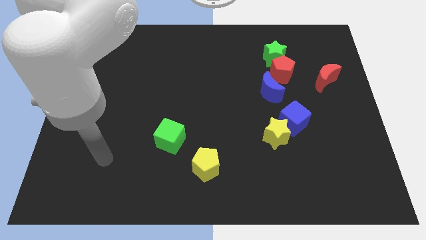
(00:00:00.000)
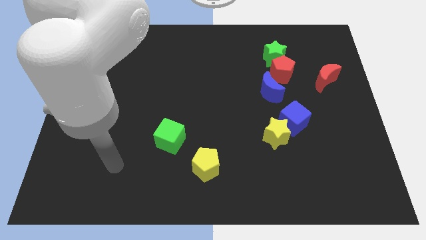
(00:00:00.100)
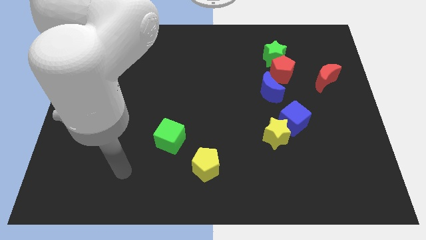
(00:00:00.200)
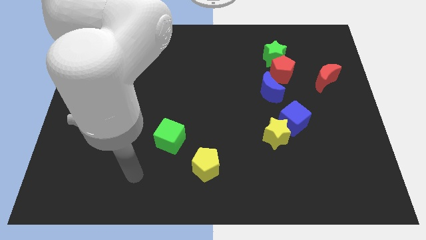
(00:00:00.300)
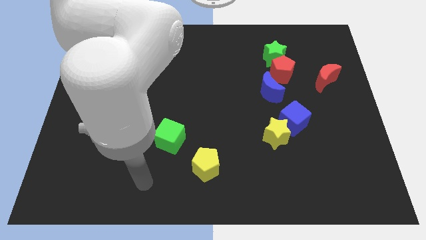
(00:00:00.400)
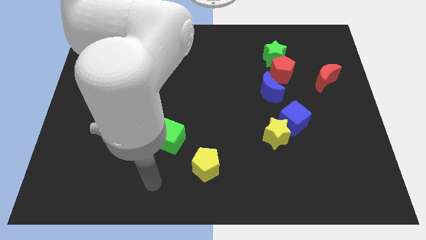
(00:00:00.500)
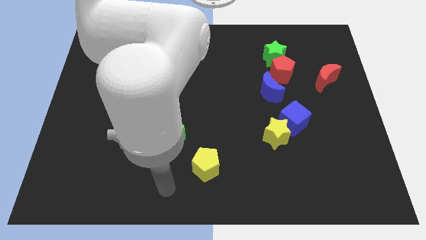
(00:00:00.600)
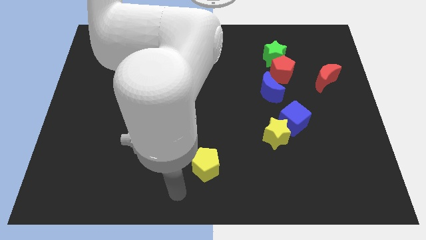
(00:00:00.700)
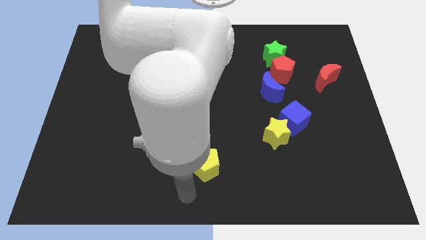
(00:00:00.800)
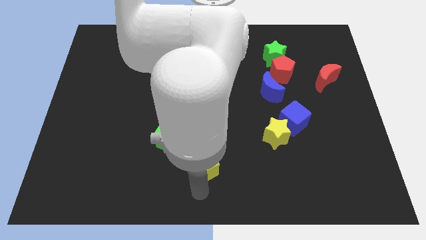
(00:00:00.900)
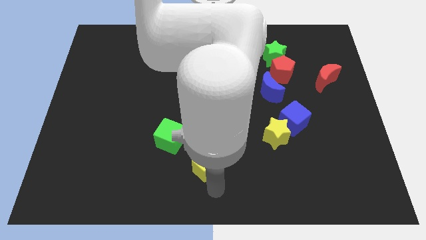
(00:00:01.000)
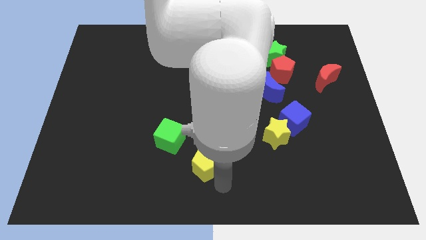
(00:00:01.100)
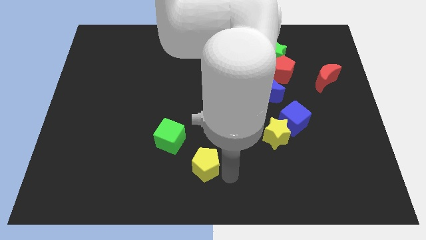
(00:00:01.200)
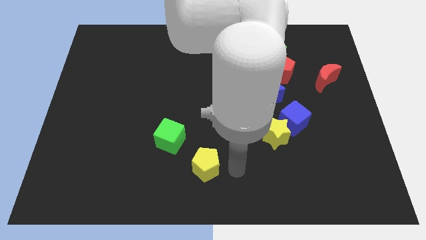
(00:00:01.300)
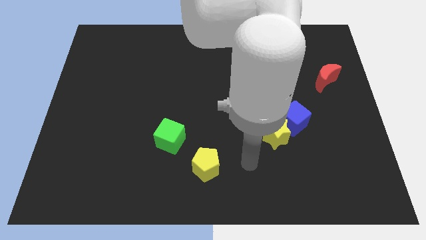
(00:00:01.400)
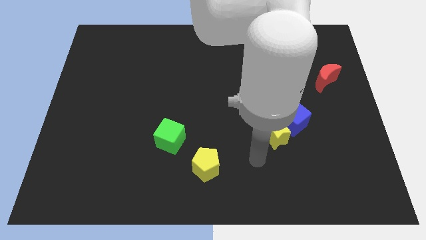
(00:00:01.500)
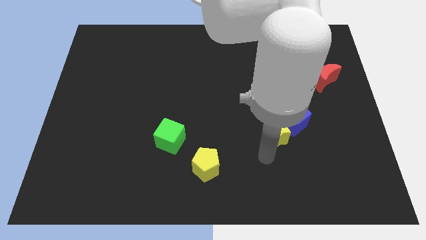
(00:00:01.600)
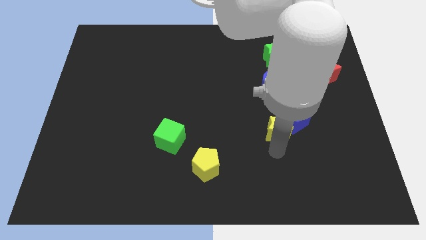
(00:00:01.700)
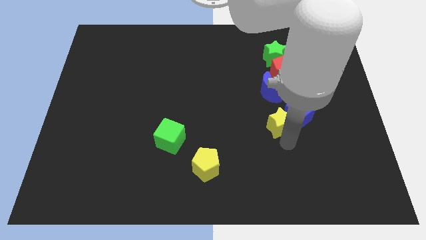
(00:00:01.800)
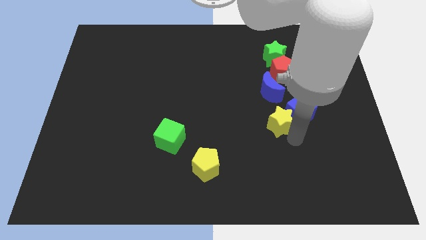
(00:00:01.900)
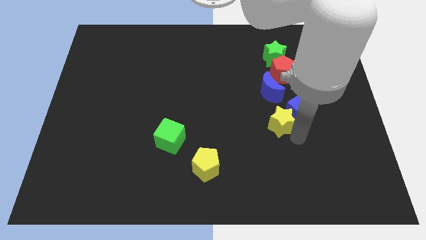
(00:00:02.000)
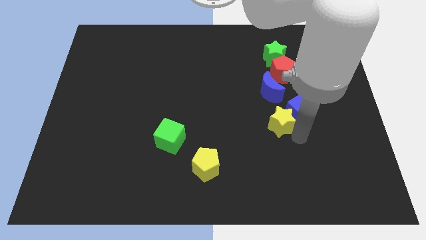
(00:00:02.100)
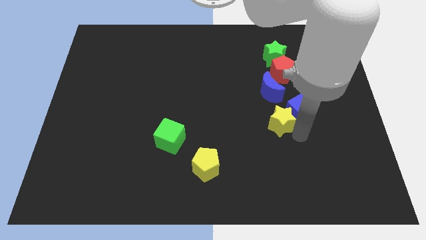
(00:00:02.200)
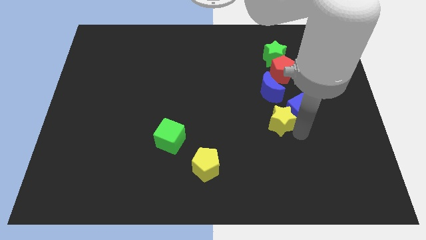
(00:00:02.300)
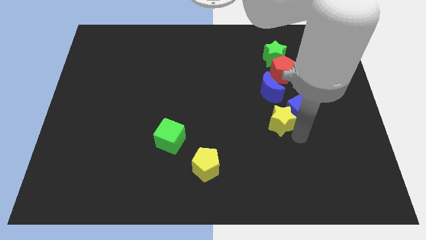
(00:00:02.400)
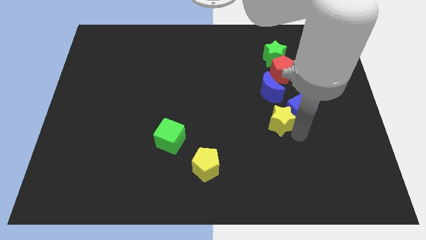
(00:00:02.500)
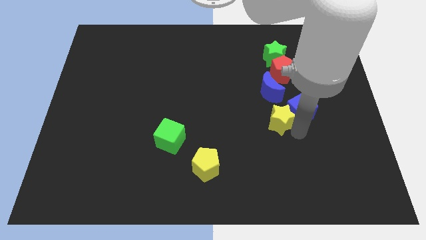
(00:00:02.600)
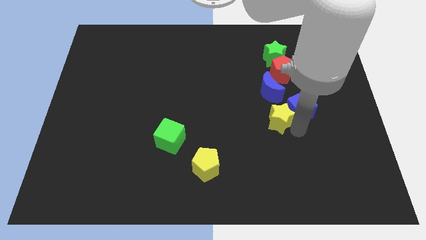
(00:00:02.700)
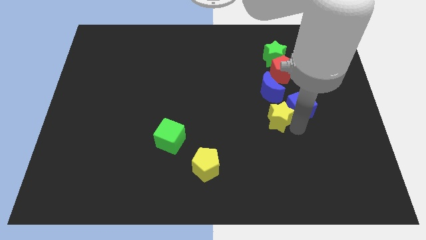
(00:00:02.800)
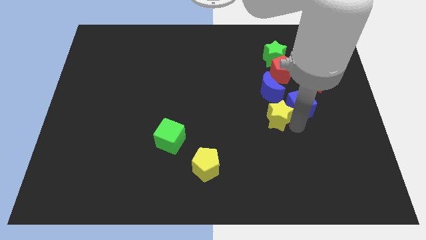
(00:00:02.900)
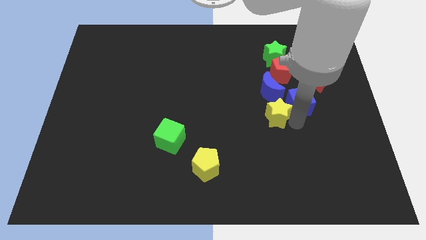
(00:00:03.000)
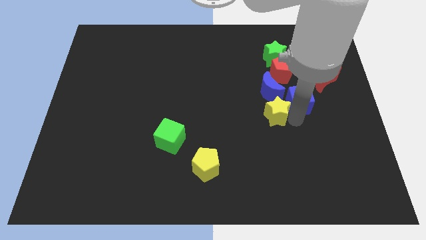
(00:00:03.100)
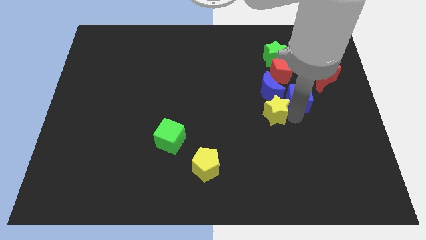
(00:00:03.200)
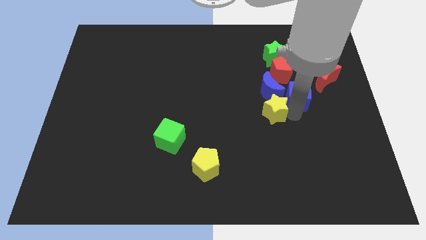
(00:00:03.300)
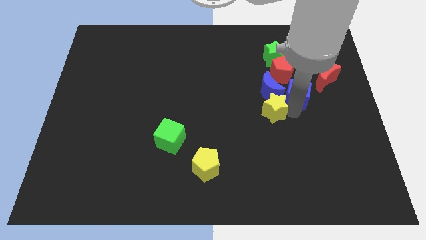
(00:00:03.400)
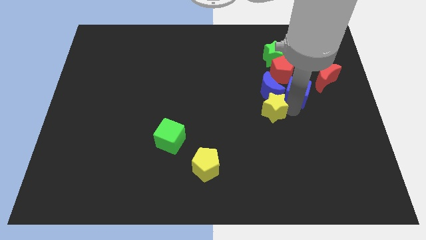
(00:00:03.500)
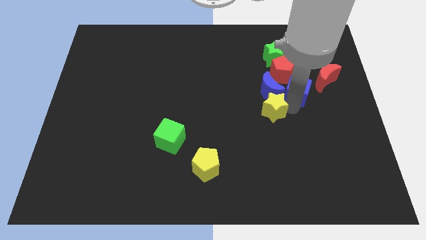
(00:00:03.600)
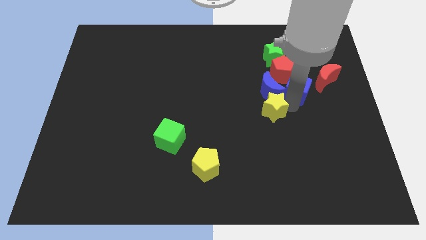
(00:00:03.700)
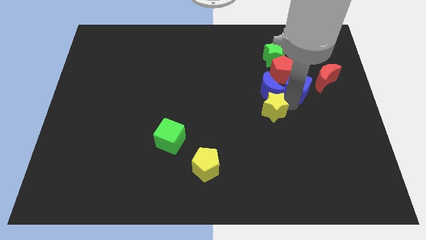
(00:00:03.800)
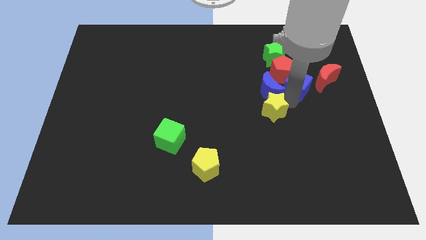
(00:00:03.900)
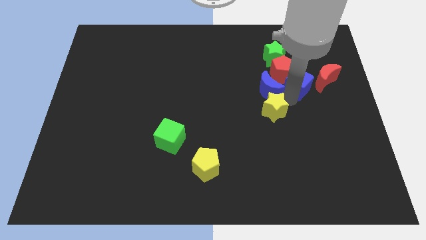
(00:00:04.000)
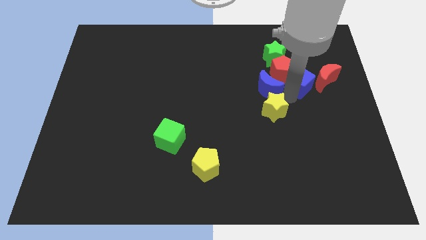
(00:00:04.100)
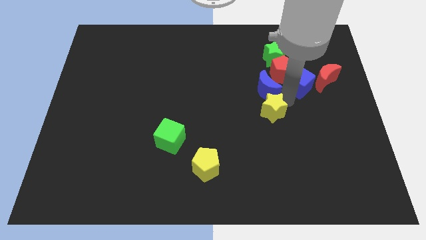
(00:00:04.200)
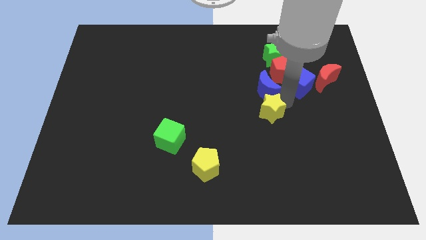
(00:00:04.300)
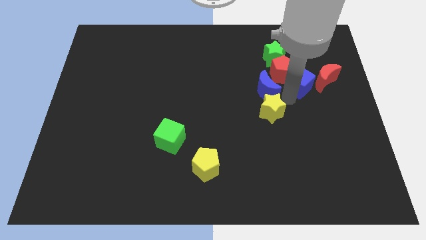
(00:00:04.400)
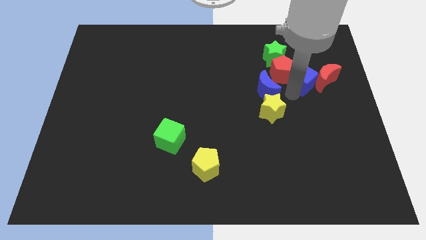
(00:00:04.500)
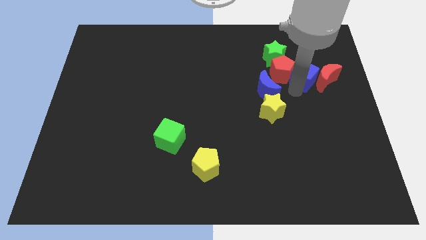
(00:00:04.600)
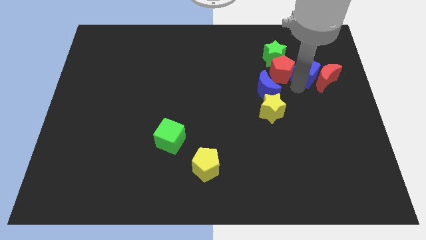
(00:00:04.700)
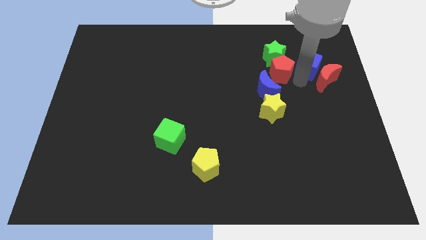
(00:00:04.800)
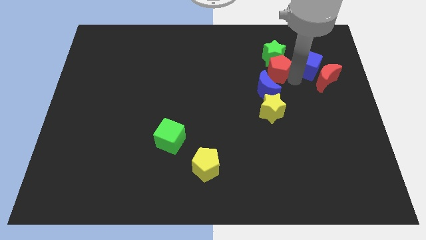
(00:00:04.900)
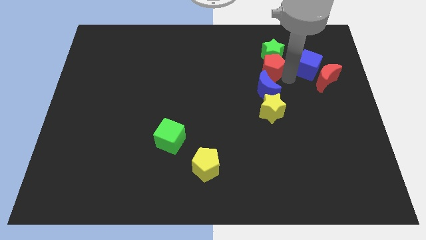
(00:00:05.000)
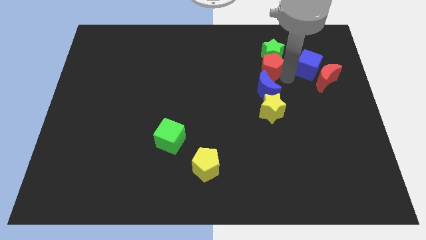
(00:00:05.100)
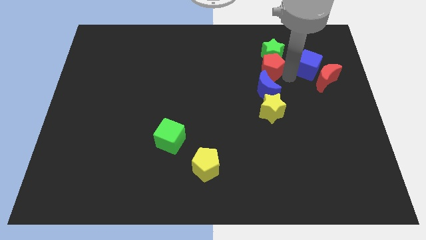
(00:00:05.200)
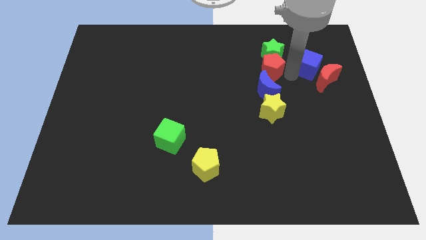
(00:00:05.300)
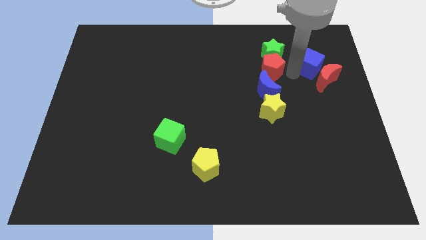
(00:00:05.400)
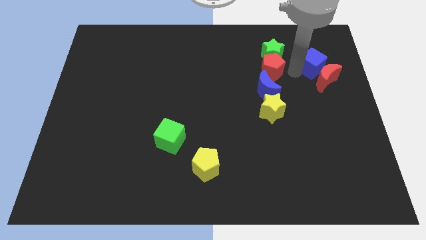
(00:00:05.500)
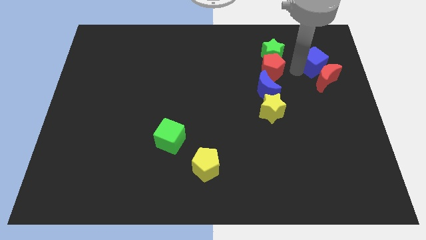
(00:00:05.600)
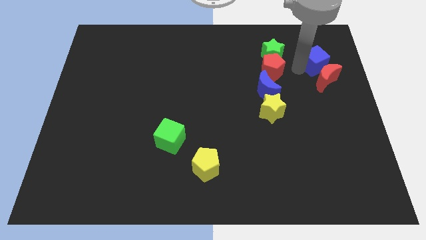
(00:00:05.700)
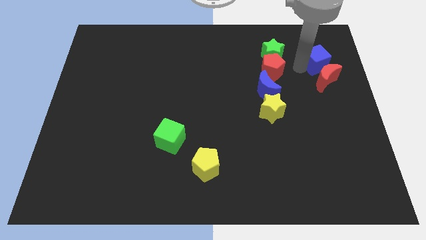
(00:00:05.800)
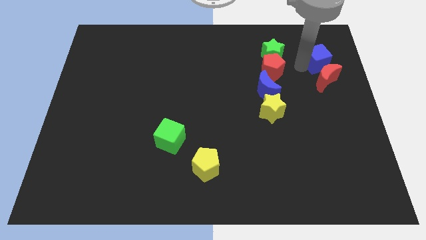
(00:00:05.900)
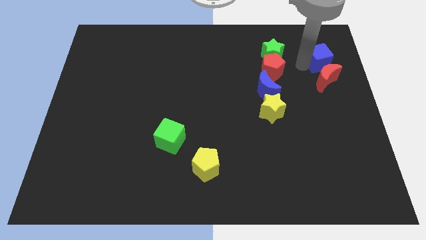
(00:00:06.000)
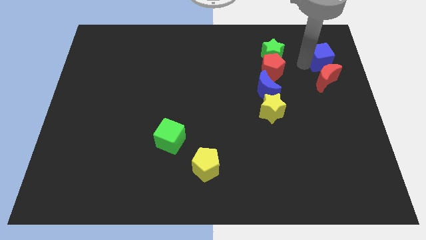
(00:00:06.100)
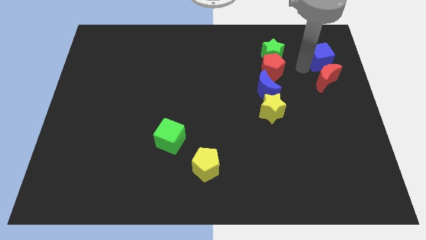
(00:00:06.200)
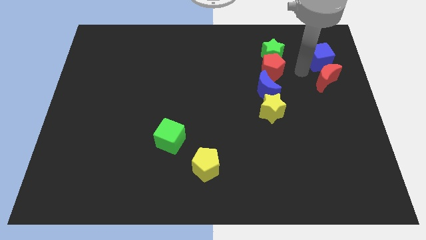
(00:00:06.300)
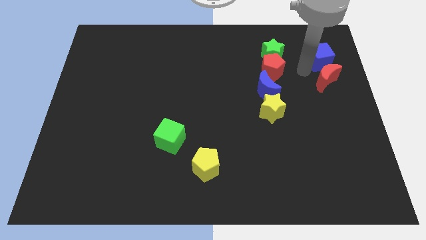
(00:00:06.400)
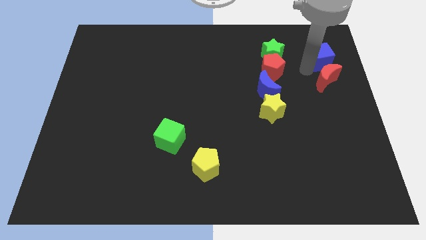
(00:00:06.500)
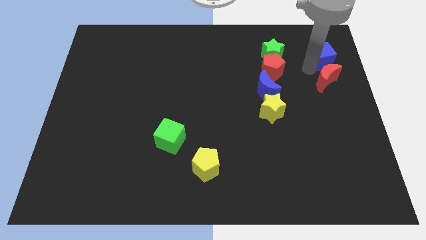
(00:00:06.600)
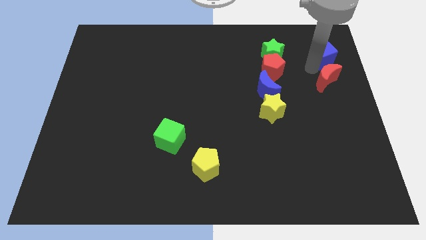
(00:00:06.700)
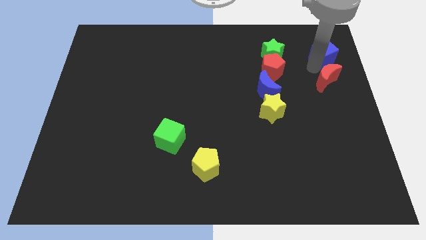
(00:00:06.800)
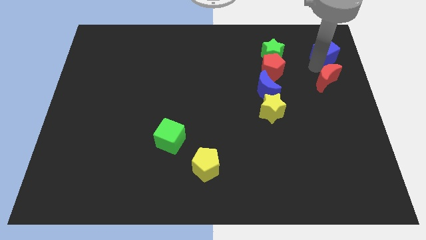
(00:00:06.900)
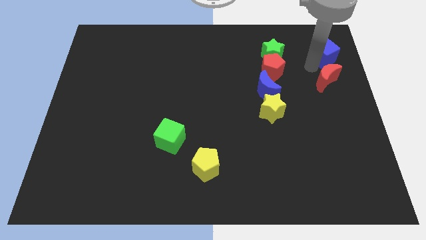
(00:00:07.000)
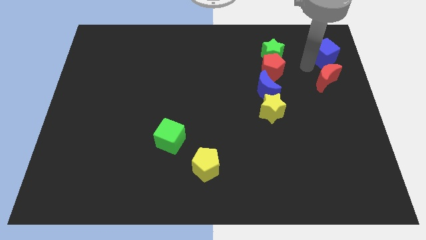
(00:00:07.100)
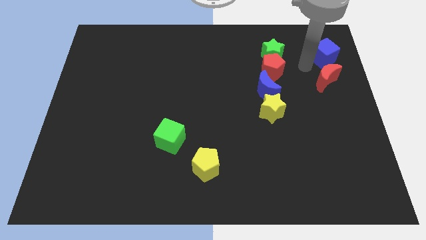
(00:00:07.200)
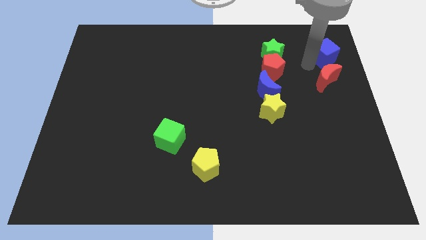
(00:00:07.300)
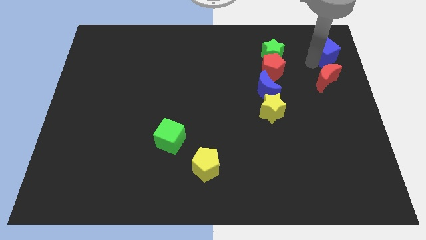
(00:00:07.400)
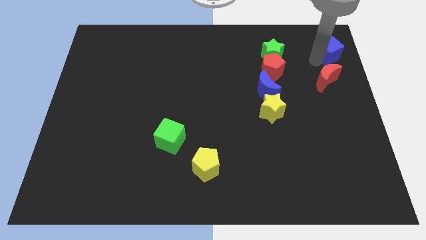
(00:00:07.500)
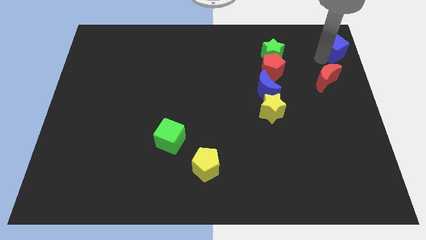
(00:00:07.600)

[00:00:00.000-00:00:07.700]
put the blue cube to the top right corner

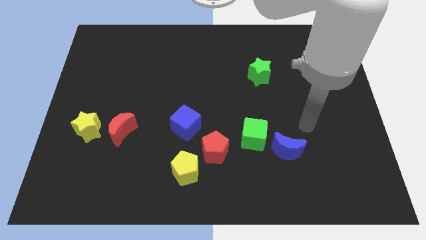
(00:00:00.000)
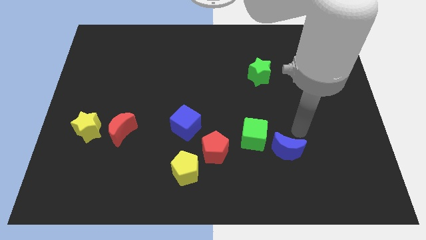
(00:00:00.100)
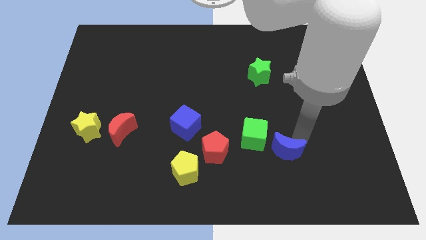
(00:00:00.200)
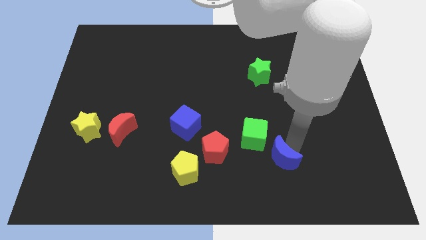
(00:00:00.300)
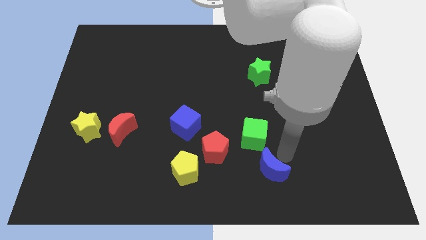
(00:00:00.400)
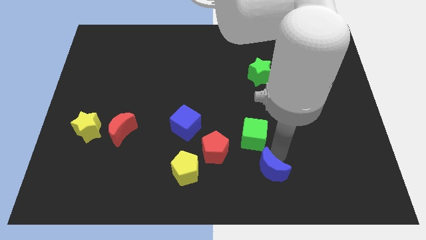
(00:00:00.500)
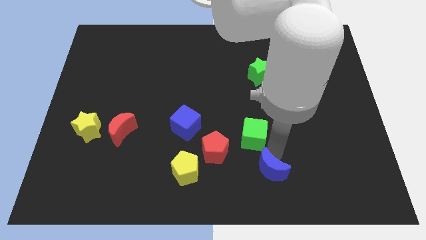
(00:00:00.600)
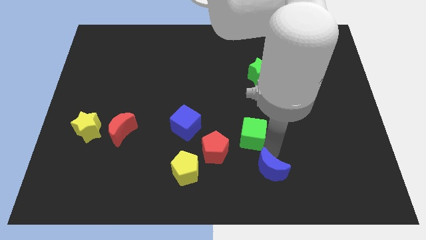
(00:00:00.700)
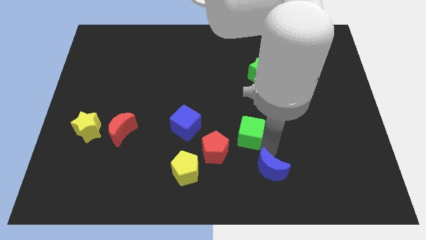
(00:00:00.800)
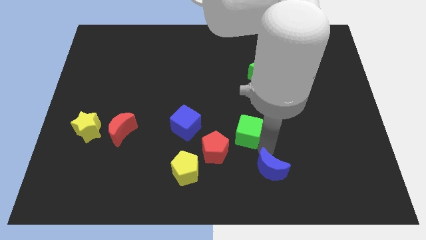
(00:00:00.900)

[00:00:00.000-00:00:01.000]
push the green cube to the middle of the board
